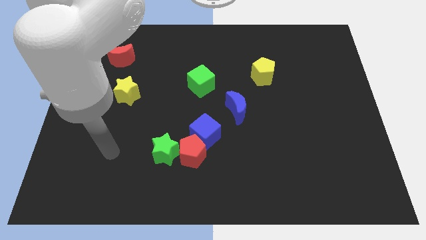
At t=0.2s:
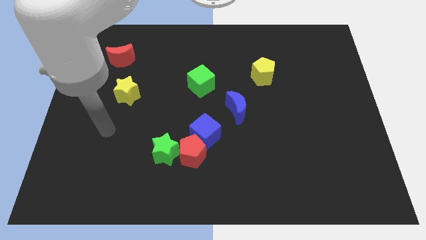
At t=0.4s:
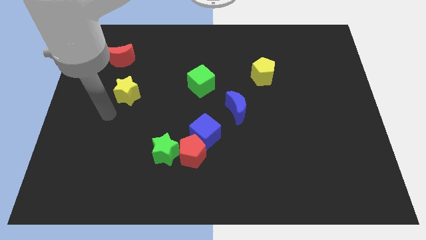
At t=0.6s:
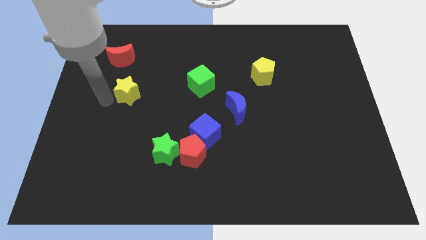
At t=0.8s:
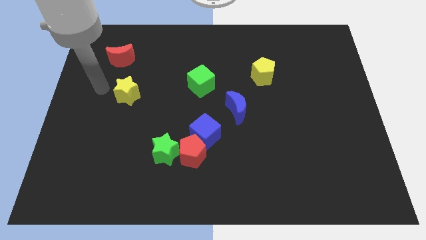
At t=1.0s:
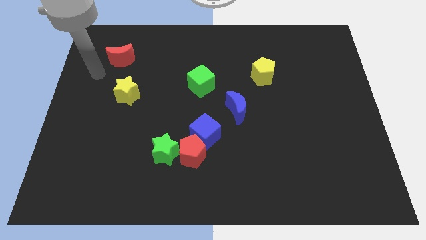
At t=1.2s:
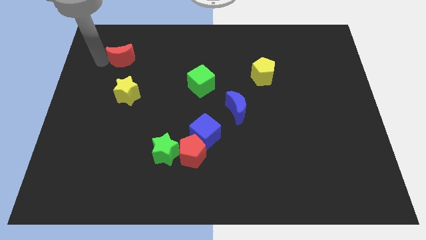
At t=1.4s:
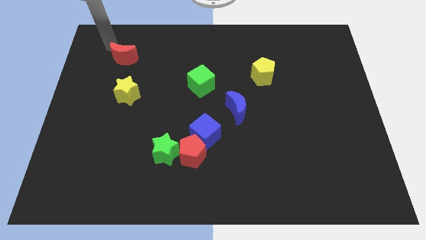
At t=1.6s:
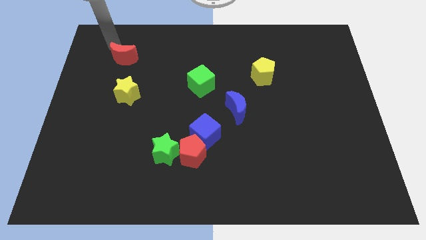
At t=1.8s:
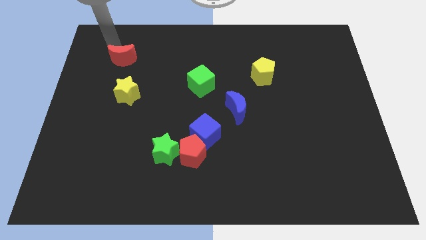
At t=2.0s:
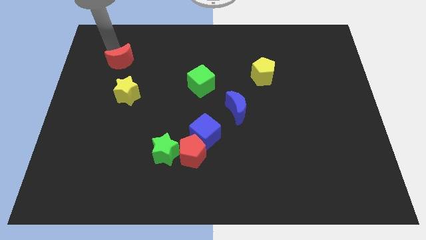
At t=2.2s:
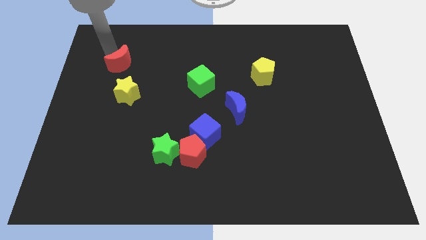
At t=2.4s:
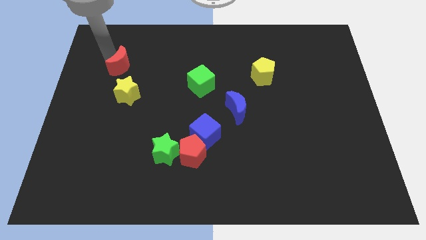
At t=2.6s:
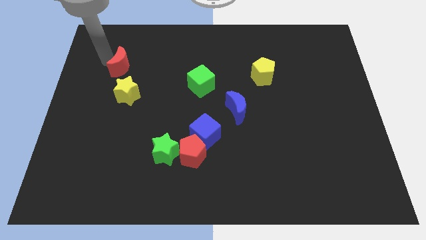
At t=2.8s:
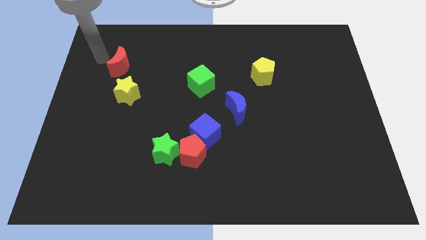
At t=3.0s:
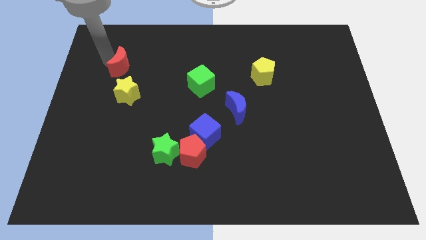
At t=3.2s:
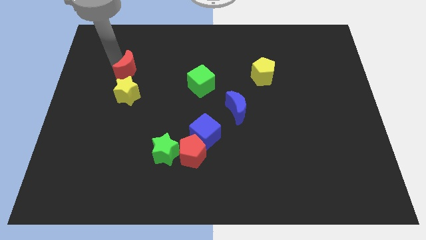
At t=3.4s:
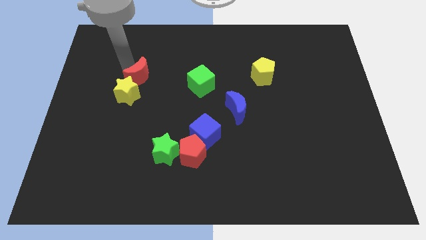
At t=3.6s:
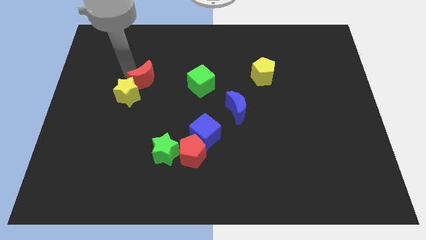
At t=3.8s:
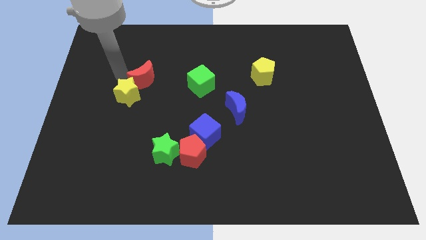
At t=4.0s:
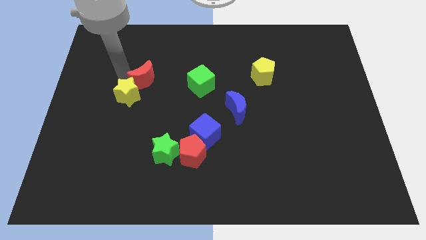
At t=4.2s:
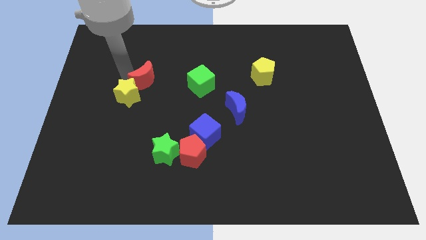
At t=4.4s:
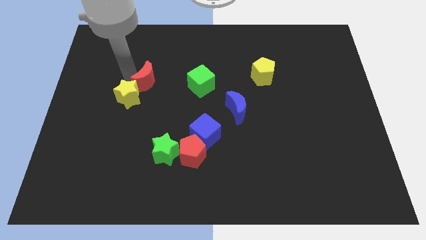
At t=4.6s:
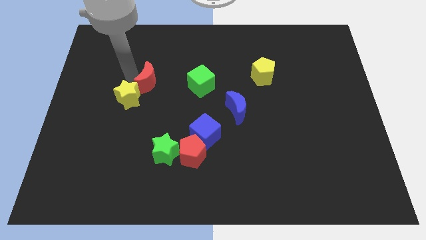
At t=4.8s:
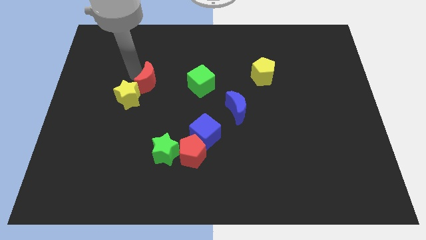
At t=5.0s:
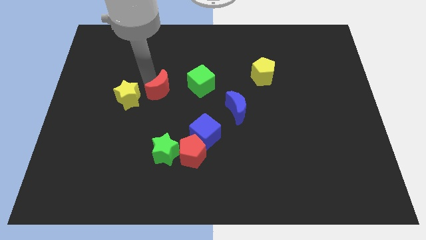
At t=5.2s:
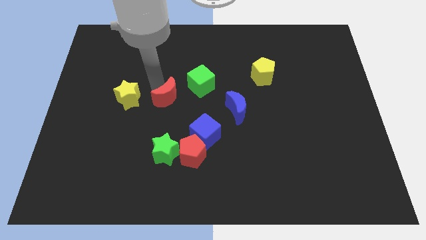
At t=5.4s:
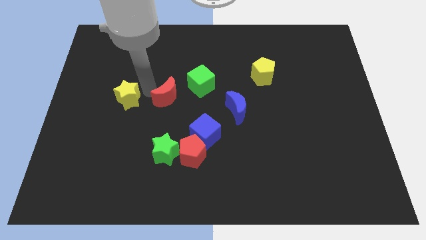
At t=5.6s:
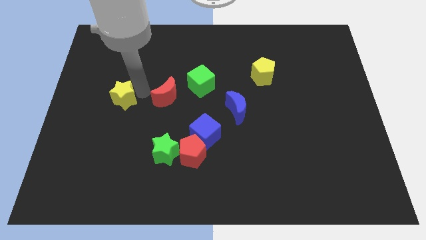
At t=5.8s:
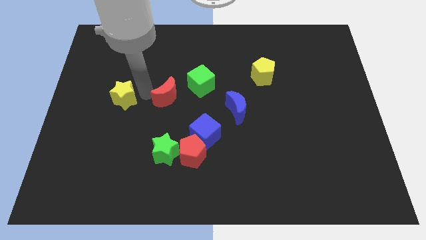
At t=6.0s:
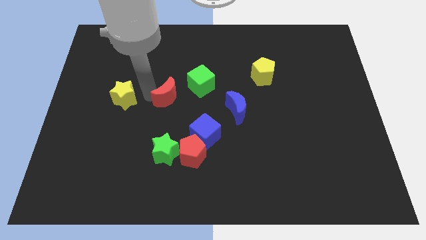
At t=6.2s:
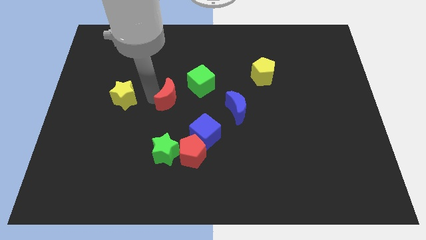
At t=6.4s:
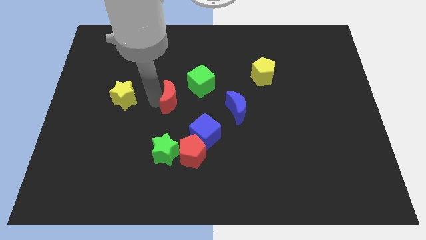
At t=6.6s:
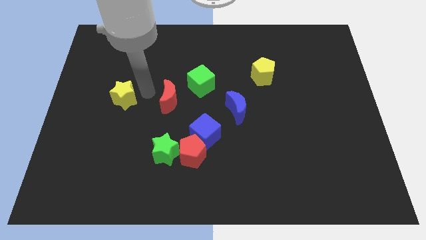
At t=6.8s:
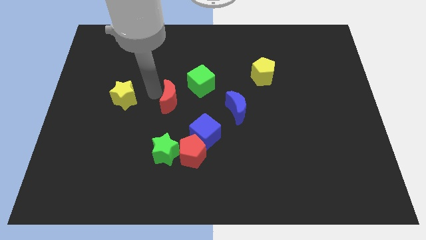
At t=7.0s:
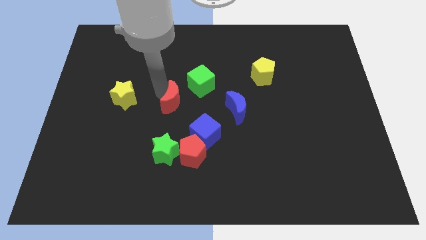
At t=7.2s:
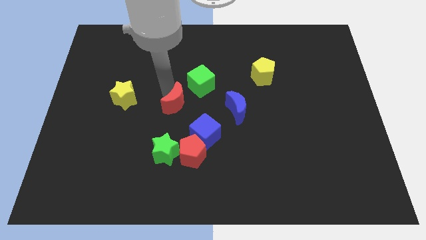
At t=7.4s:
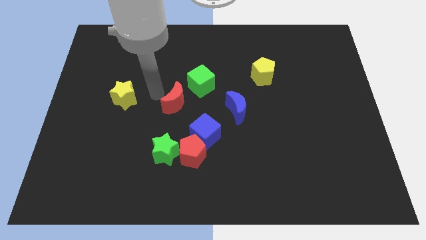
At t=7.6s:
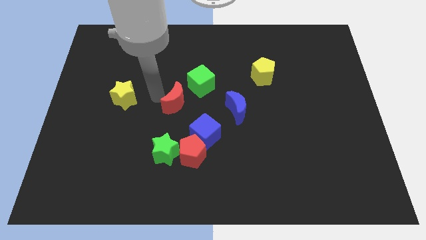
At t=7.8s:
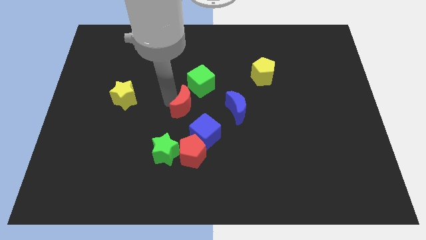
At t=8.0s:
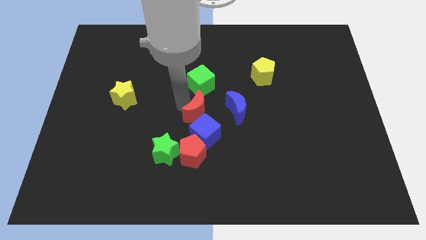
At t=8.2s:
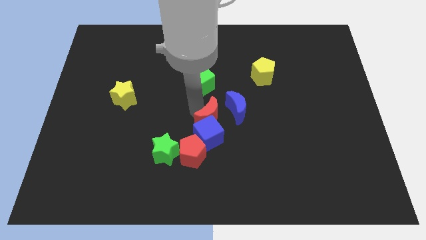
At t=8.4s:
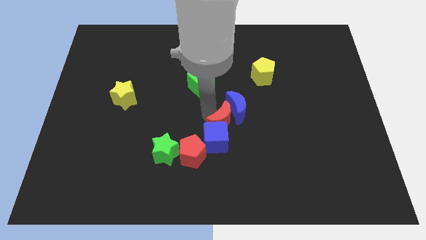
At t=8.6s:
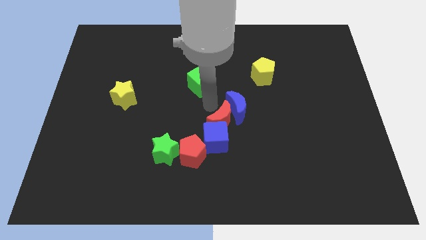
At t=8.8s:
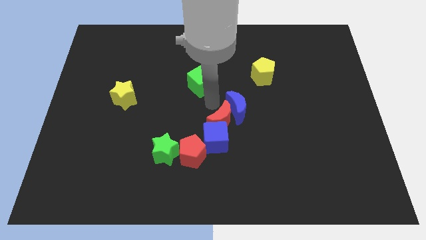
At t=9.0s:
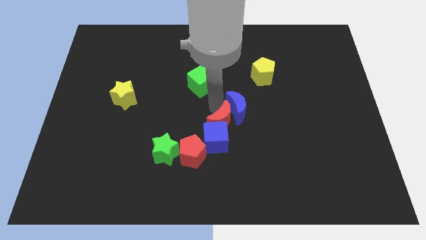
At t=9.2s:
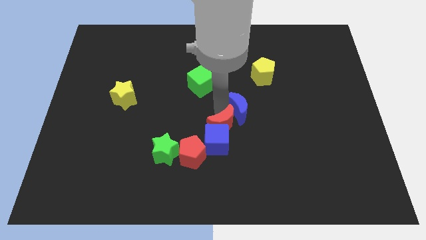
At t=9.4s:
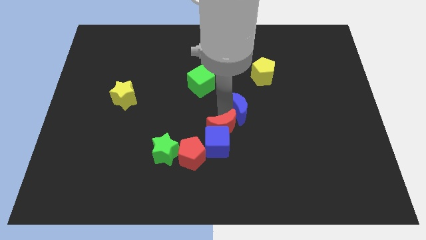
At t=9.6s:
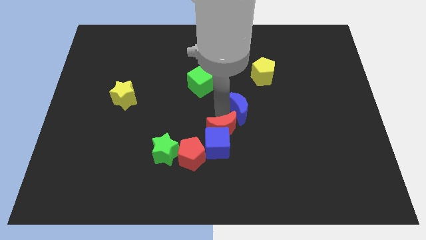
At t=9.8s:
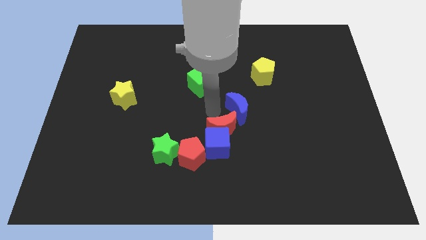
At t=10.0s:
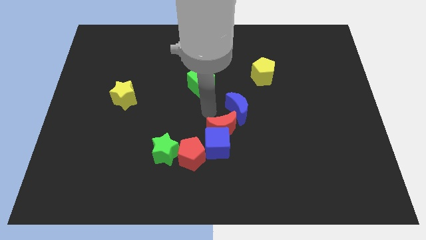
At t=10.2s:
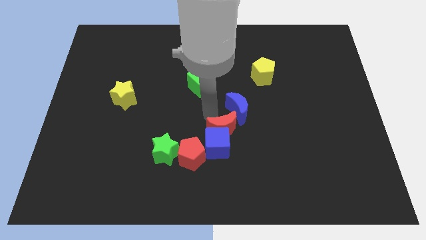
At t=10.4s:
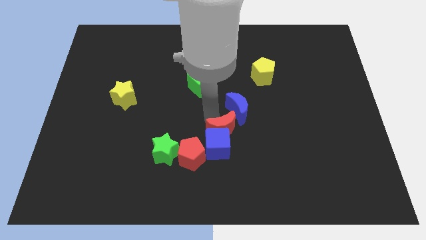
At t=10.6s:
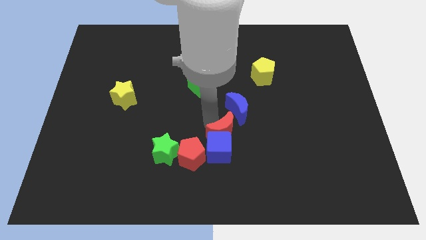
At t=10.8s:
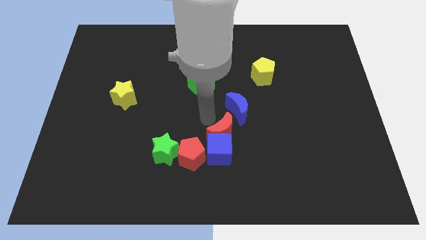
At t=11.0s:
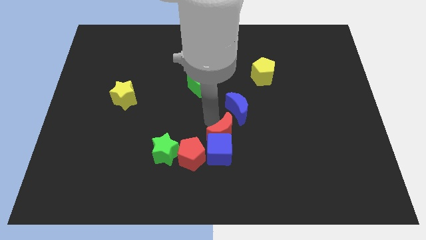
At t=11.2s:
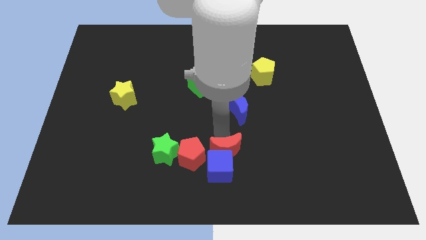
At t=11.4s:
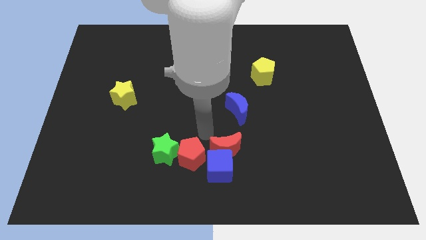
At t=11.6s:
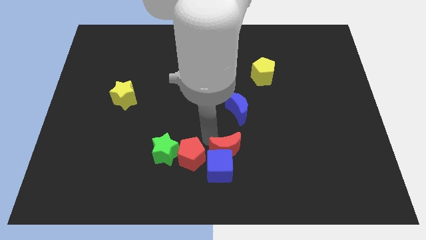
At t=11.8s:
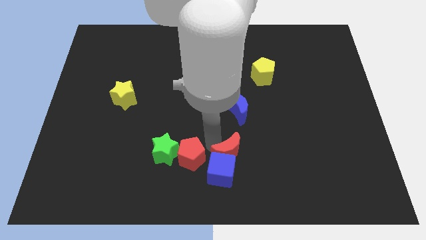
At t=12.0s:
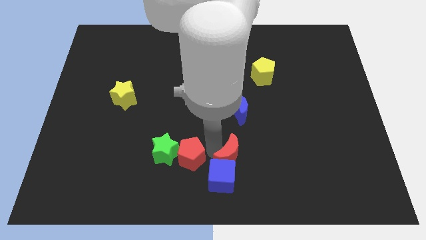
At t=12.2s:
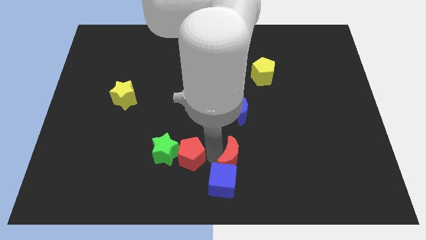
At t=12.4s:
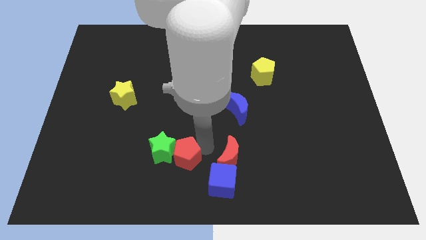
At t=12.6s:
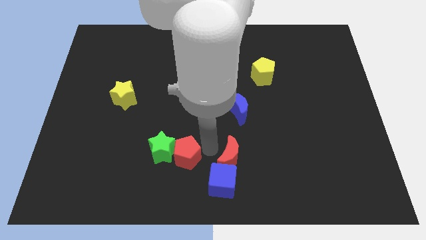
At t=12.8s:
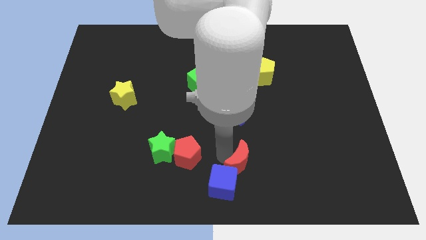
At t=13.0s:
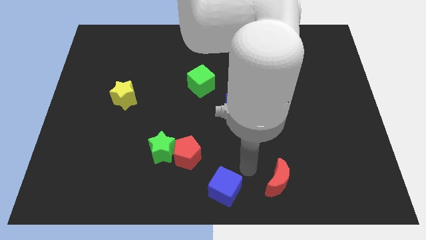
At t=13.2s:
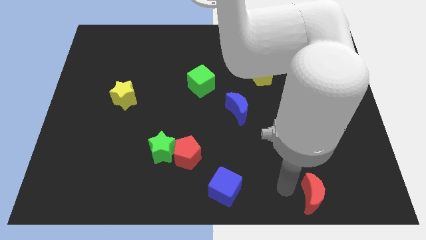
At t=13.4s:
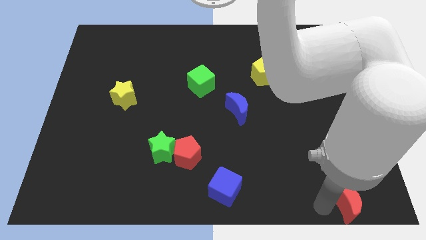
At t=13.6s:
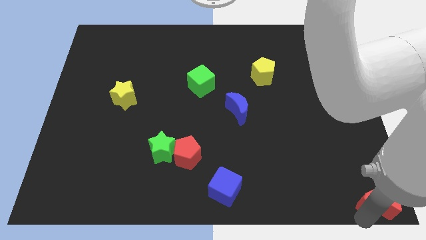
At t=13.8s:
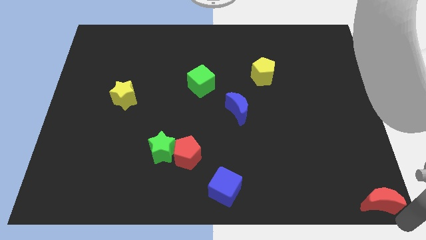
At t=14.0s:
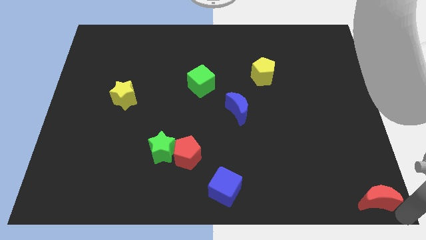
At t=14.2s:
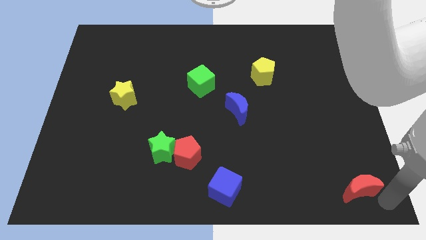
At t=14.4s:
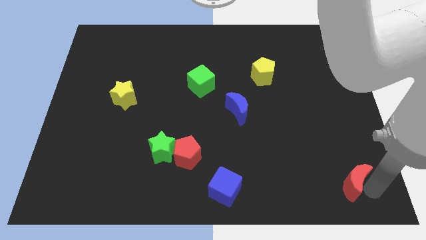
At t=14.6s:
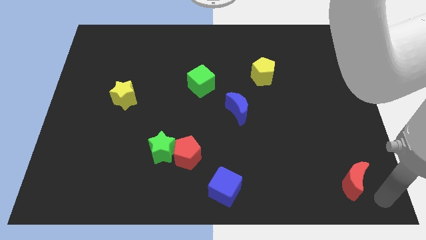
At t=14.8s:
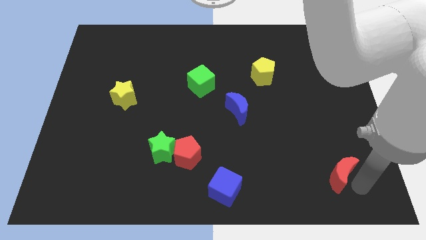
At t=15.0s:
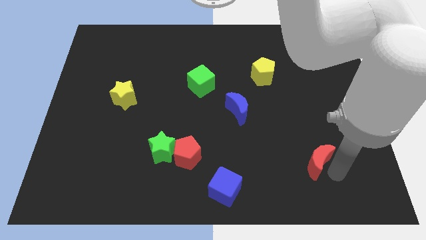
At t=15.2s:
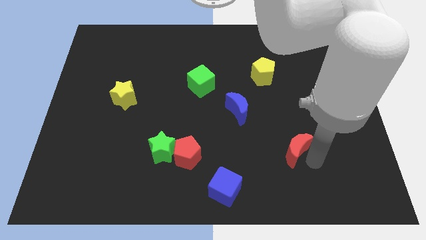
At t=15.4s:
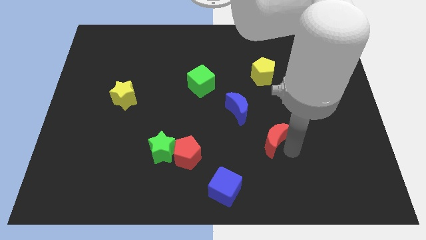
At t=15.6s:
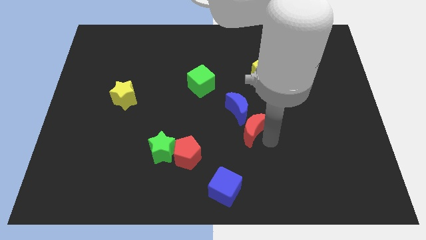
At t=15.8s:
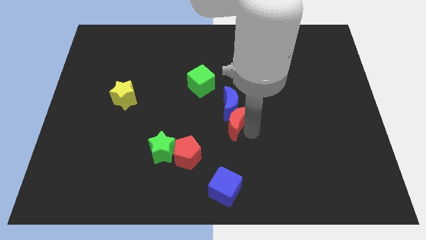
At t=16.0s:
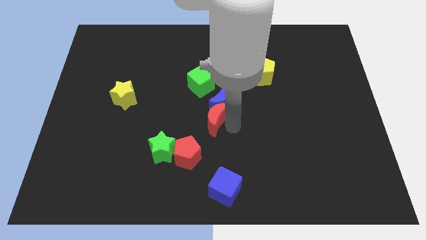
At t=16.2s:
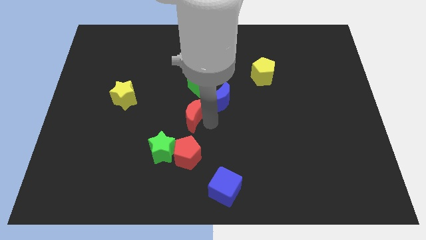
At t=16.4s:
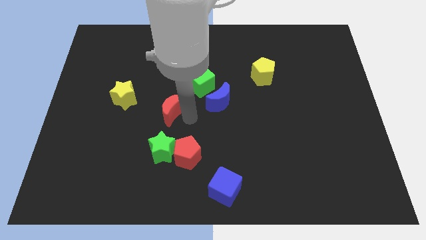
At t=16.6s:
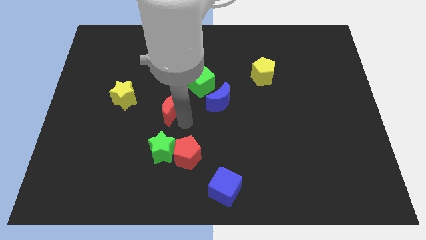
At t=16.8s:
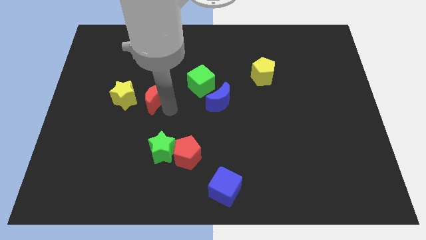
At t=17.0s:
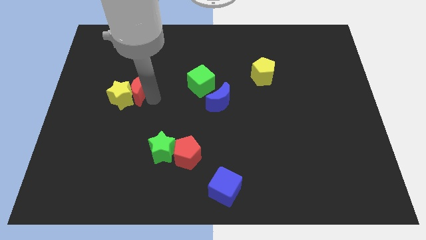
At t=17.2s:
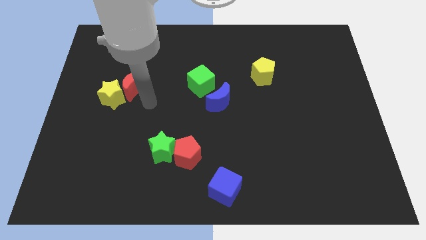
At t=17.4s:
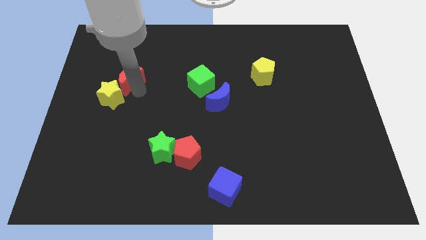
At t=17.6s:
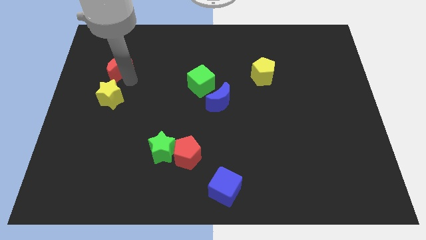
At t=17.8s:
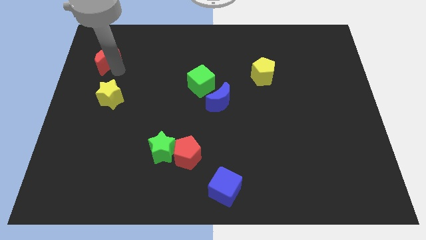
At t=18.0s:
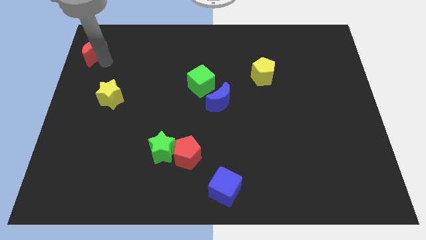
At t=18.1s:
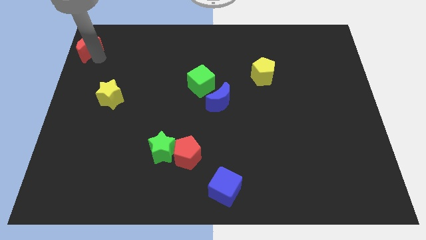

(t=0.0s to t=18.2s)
put the red moon to the upper left corner
